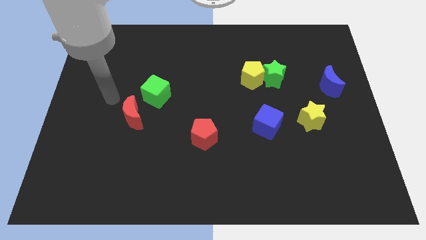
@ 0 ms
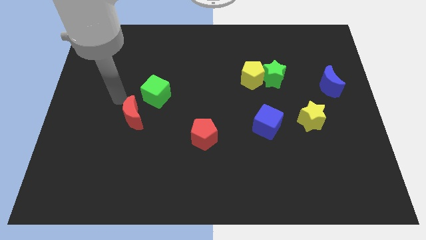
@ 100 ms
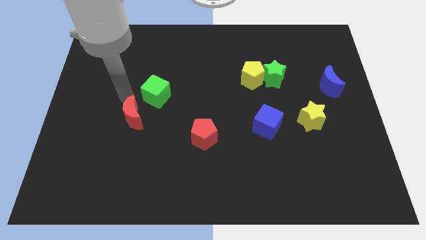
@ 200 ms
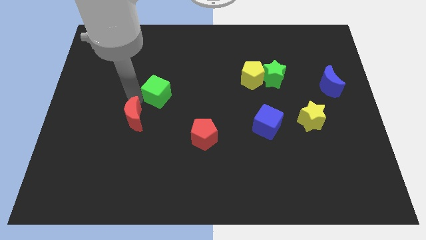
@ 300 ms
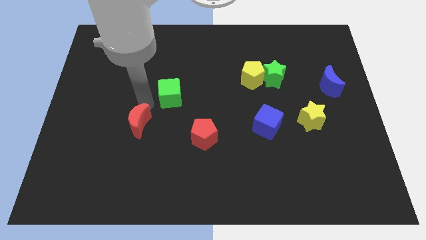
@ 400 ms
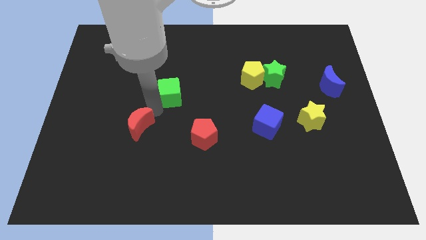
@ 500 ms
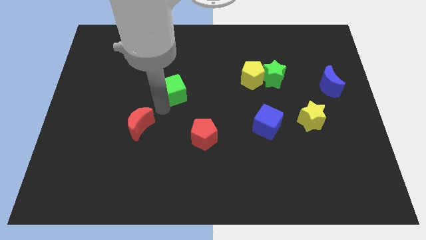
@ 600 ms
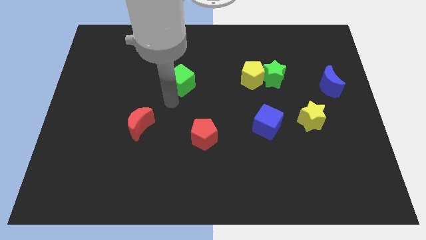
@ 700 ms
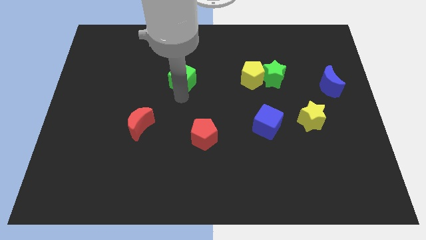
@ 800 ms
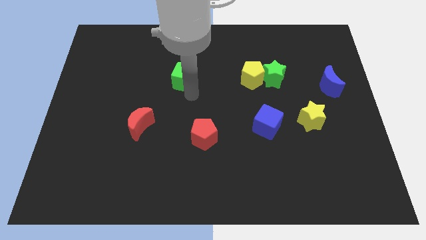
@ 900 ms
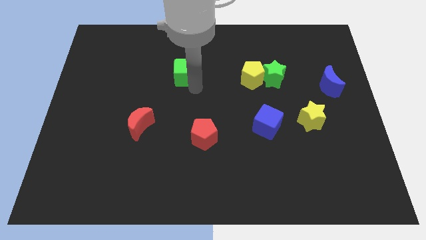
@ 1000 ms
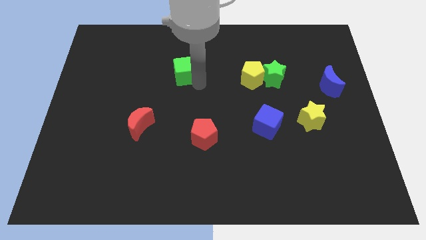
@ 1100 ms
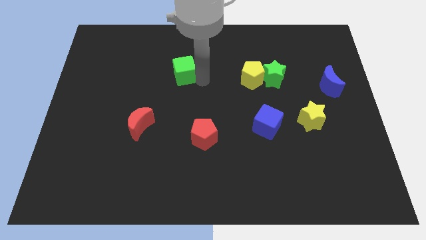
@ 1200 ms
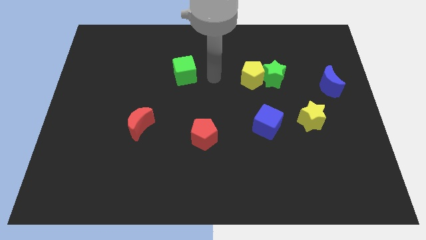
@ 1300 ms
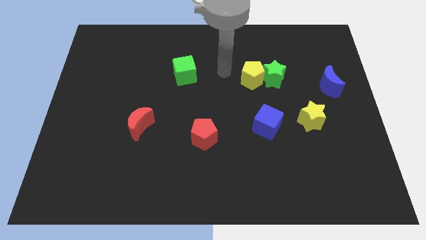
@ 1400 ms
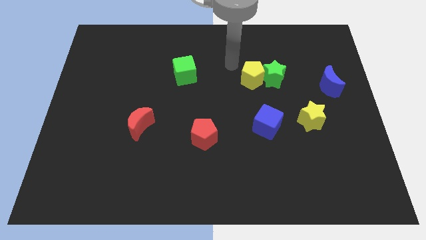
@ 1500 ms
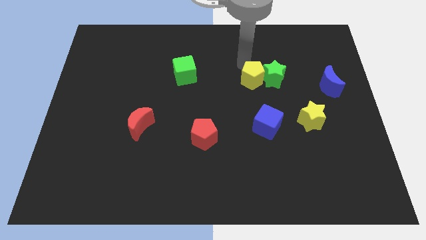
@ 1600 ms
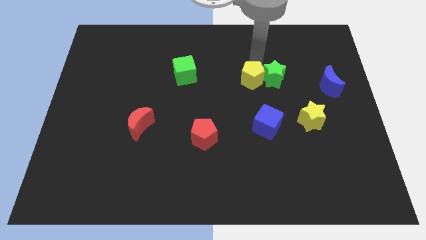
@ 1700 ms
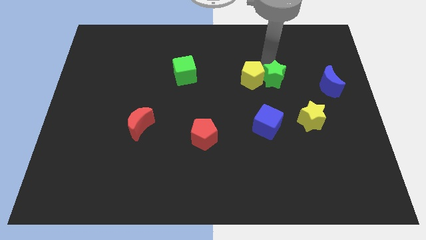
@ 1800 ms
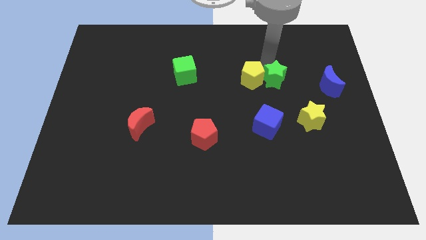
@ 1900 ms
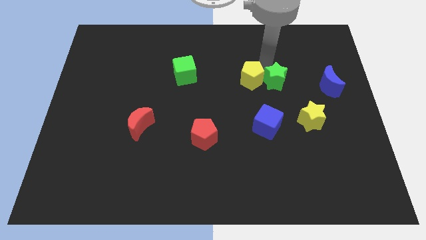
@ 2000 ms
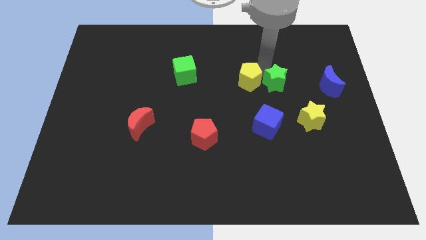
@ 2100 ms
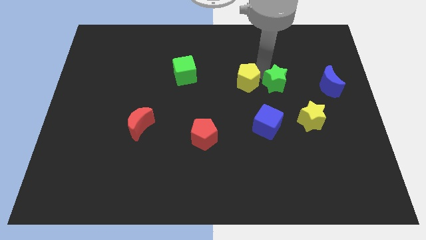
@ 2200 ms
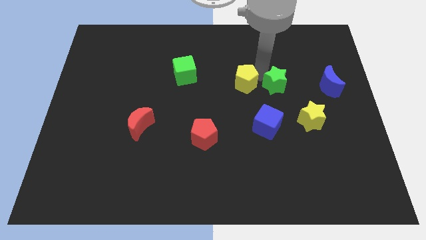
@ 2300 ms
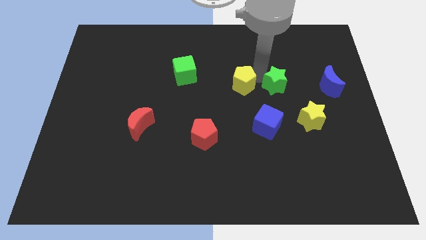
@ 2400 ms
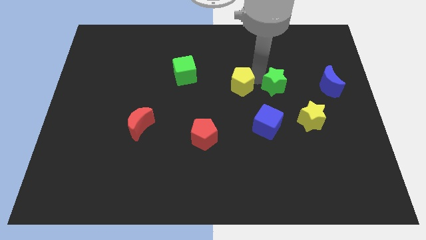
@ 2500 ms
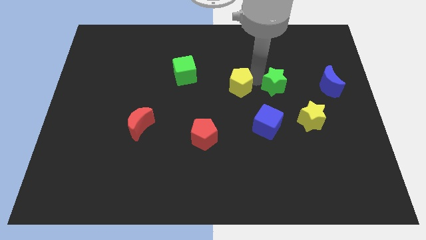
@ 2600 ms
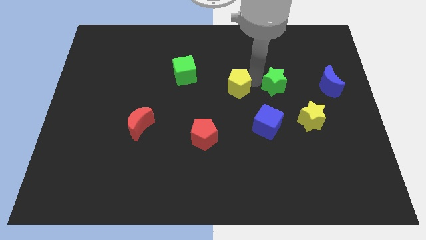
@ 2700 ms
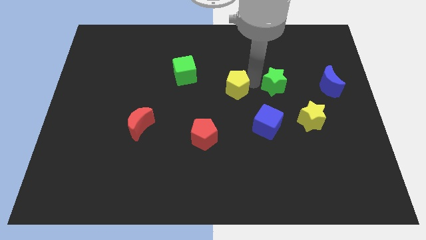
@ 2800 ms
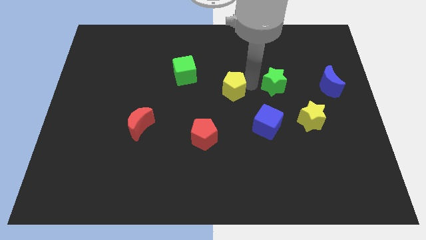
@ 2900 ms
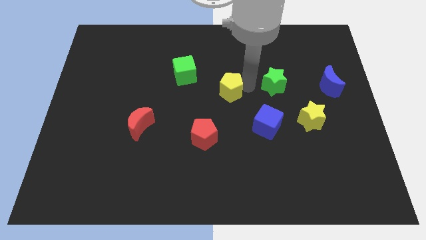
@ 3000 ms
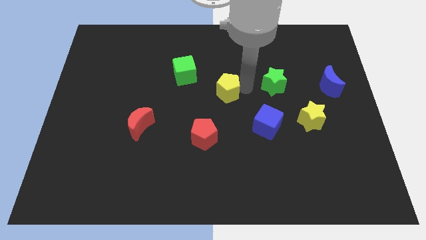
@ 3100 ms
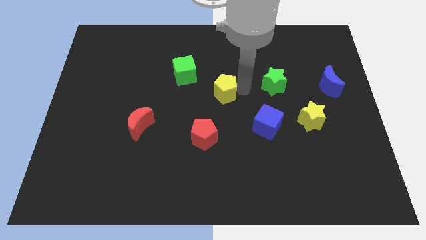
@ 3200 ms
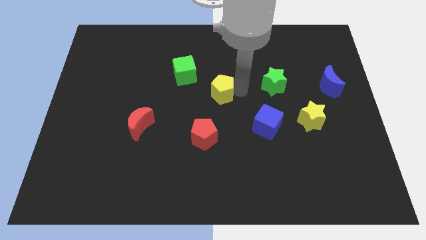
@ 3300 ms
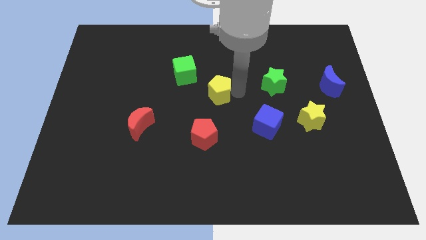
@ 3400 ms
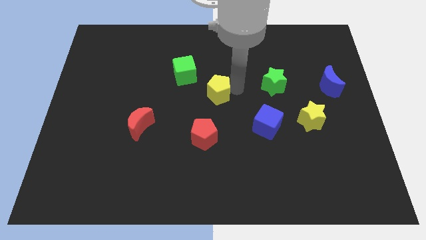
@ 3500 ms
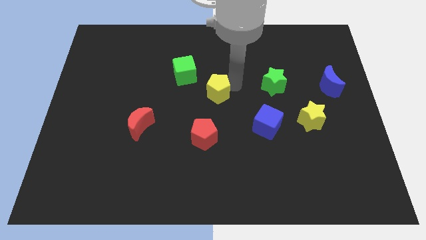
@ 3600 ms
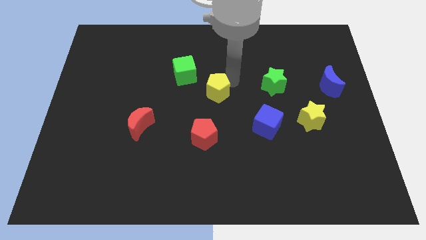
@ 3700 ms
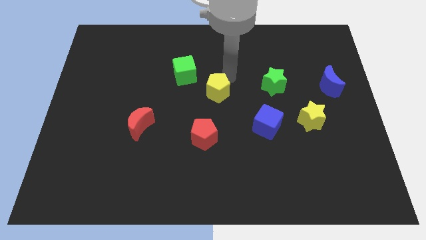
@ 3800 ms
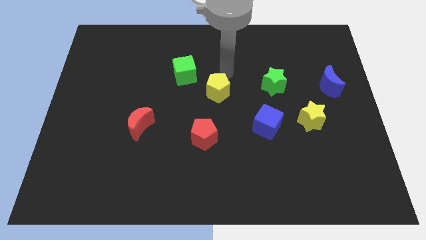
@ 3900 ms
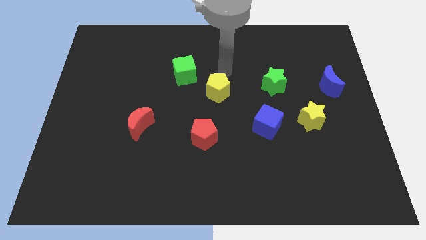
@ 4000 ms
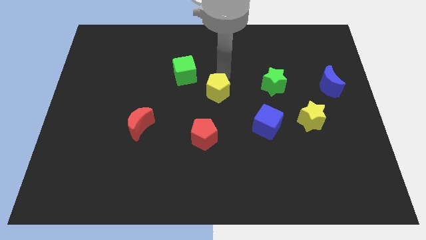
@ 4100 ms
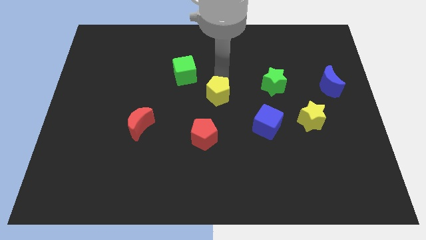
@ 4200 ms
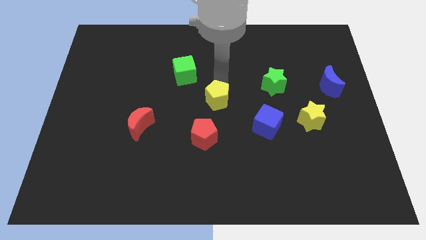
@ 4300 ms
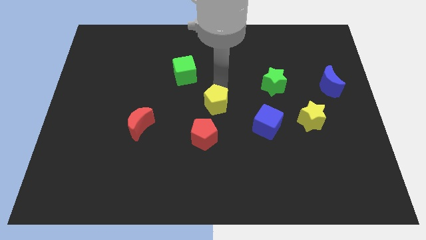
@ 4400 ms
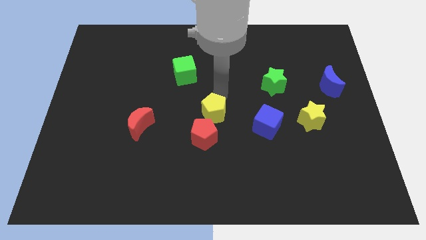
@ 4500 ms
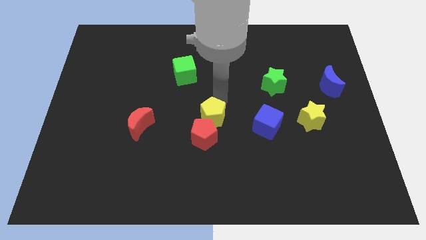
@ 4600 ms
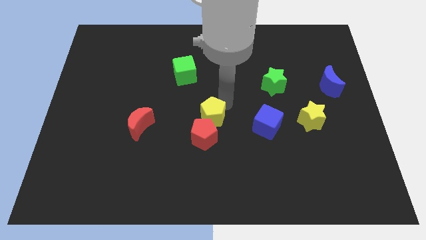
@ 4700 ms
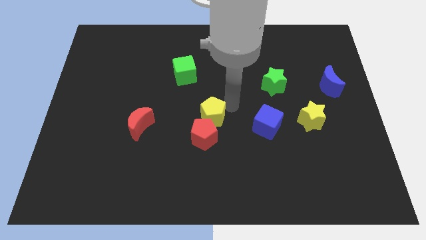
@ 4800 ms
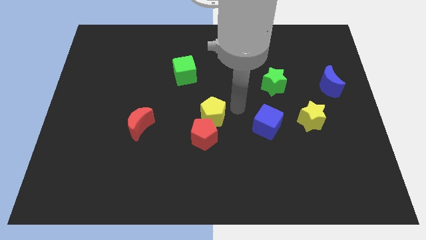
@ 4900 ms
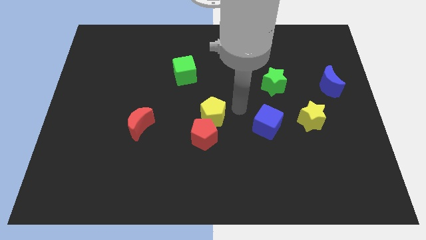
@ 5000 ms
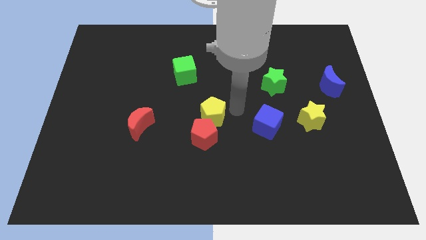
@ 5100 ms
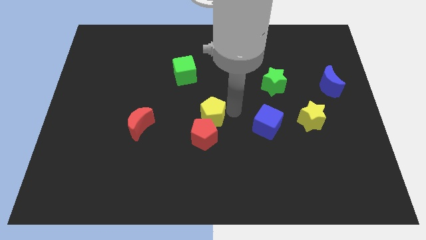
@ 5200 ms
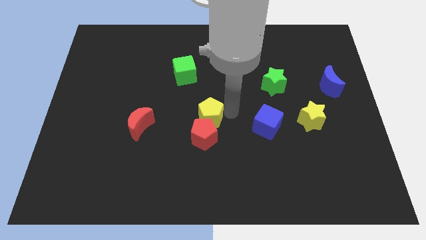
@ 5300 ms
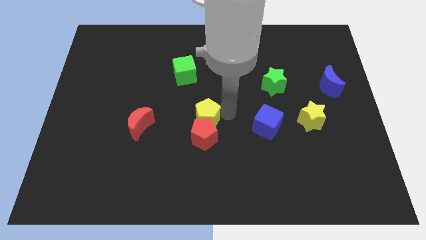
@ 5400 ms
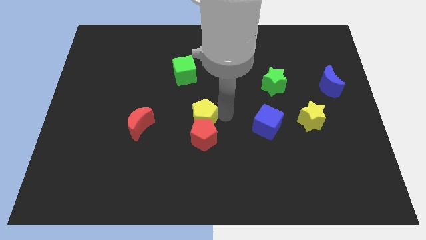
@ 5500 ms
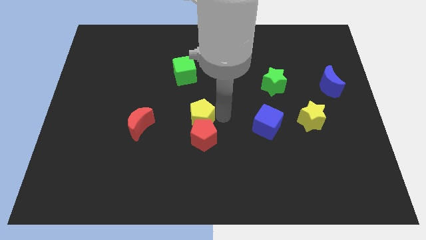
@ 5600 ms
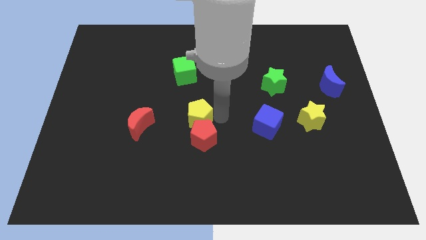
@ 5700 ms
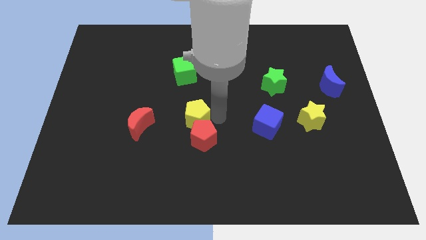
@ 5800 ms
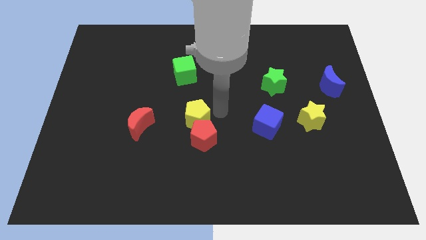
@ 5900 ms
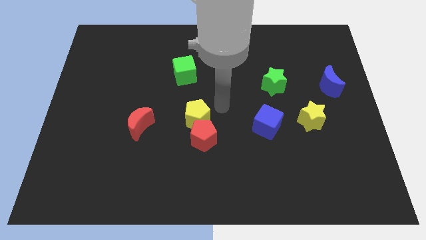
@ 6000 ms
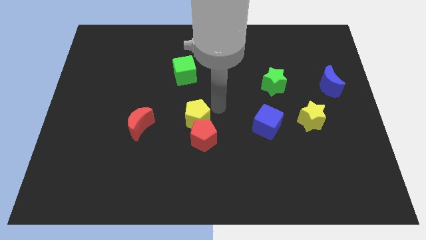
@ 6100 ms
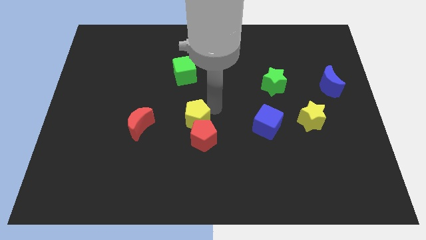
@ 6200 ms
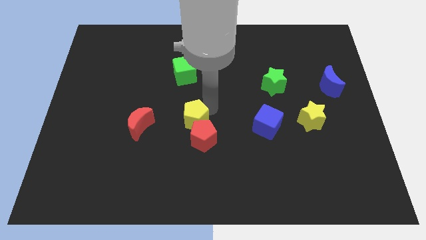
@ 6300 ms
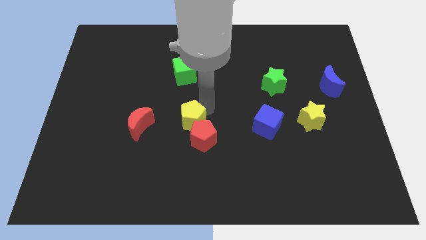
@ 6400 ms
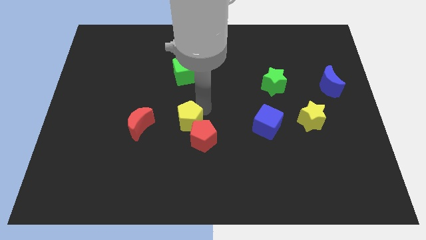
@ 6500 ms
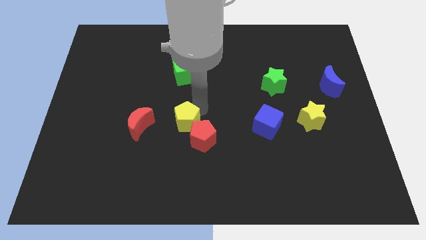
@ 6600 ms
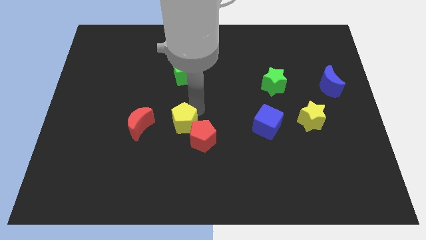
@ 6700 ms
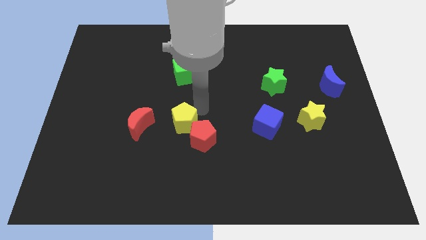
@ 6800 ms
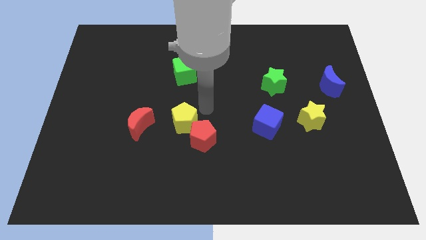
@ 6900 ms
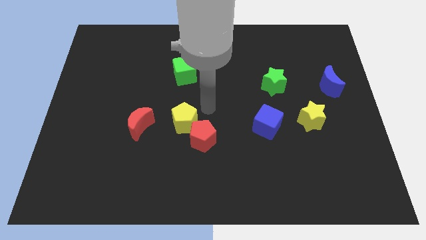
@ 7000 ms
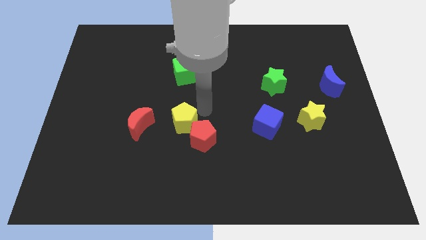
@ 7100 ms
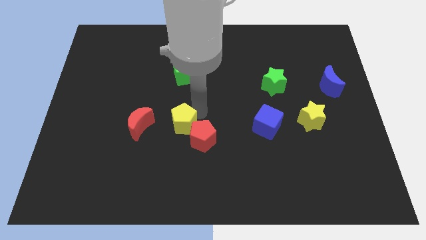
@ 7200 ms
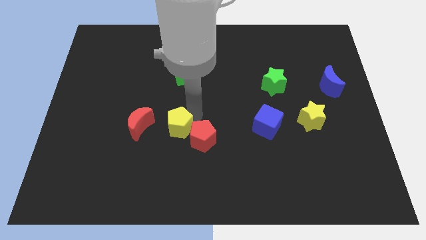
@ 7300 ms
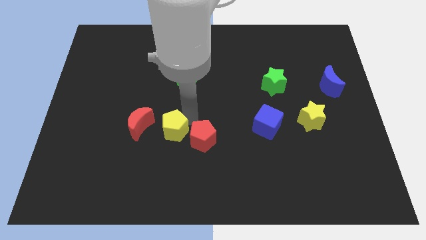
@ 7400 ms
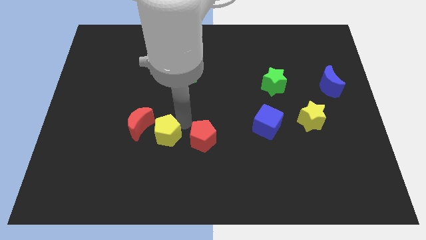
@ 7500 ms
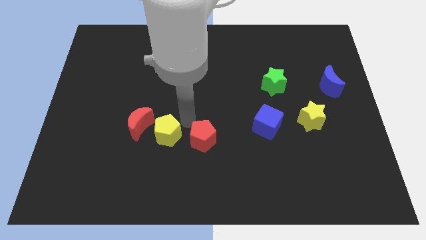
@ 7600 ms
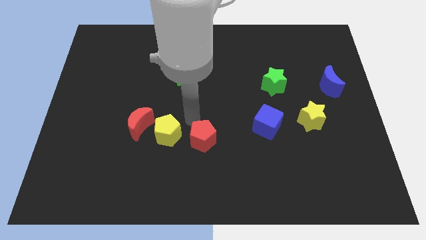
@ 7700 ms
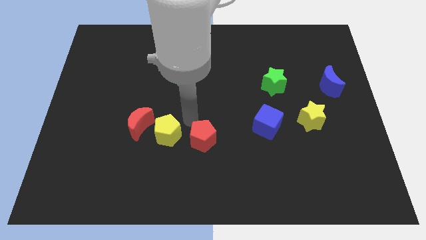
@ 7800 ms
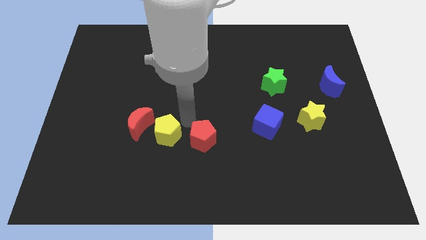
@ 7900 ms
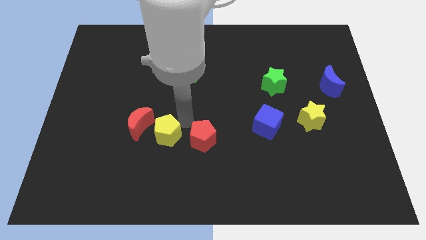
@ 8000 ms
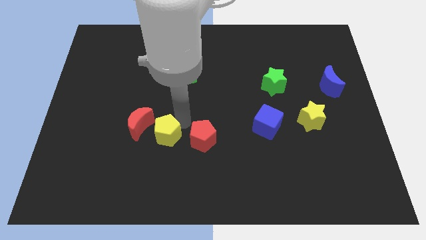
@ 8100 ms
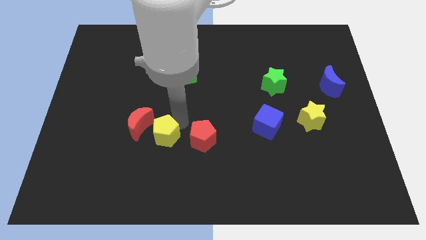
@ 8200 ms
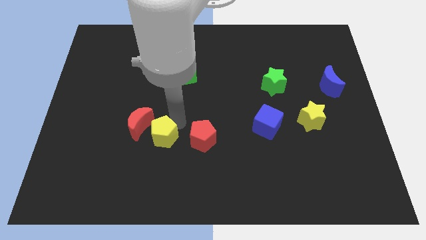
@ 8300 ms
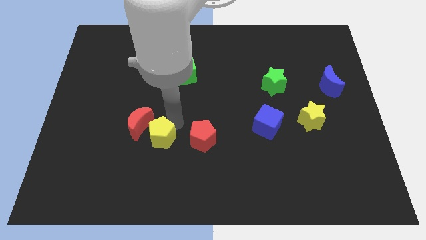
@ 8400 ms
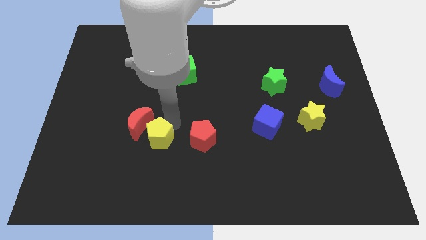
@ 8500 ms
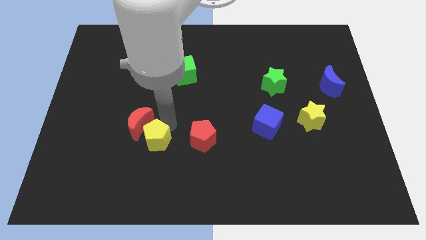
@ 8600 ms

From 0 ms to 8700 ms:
put the yellow pentagon to the bottom side of the red moon
